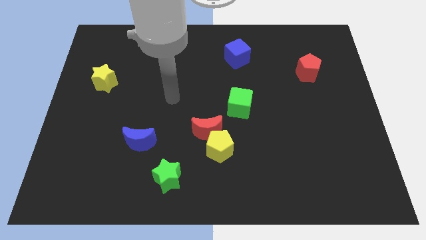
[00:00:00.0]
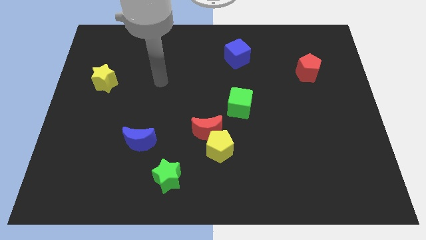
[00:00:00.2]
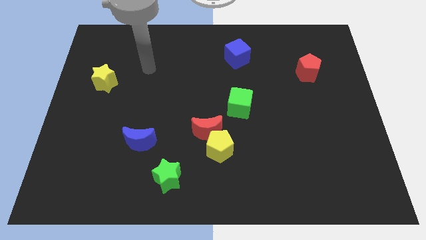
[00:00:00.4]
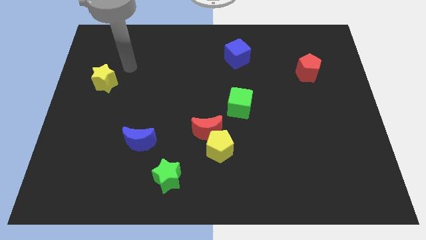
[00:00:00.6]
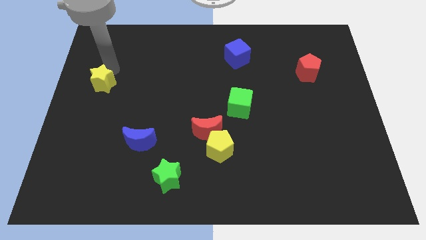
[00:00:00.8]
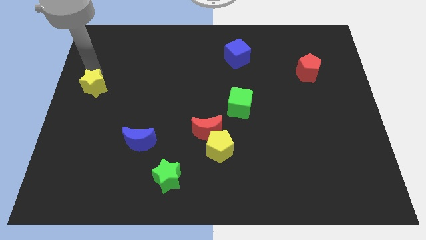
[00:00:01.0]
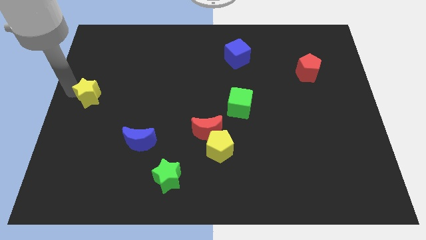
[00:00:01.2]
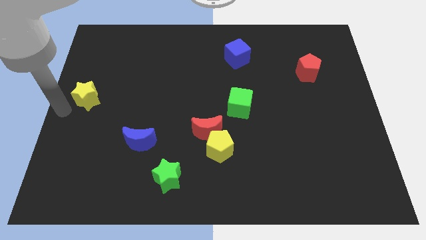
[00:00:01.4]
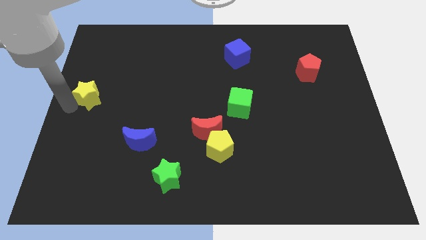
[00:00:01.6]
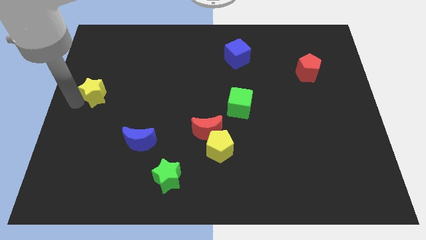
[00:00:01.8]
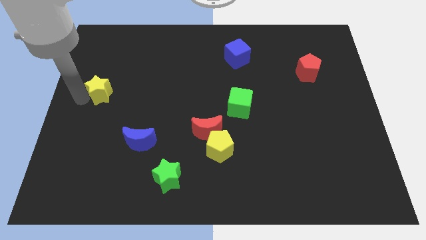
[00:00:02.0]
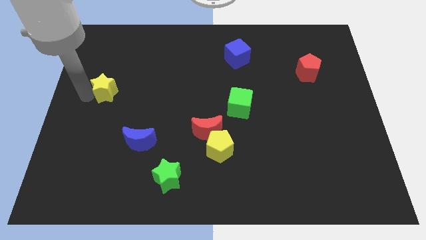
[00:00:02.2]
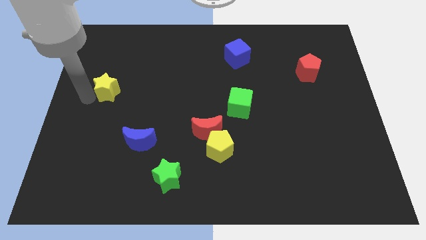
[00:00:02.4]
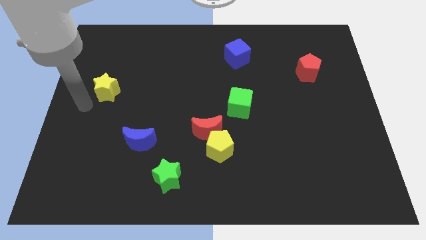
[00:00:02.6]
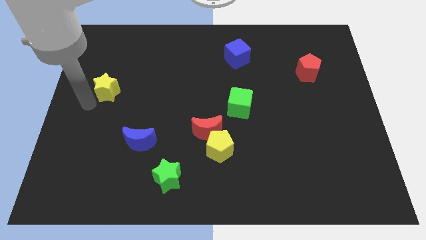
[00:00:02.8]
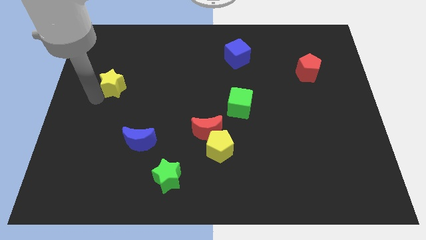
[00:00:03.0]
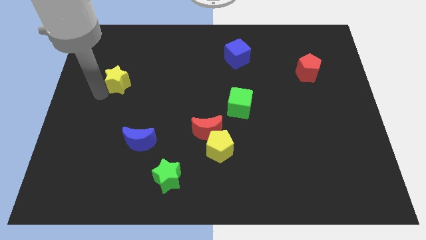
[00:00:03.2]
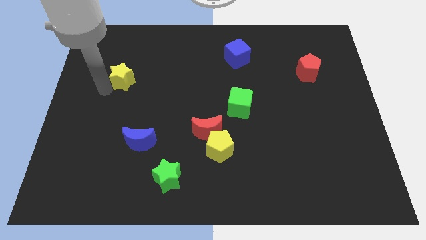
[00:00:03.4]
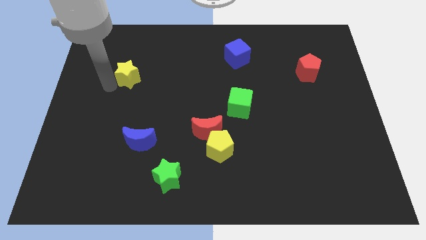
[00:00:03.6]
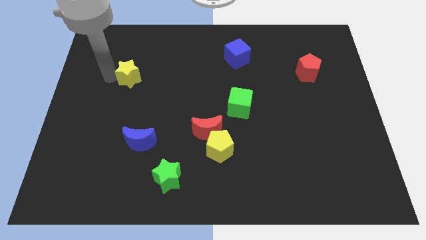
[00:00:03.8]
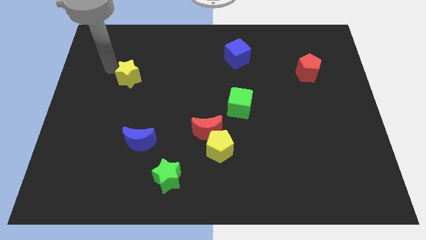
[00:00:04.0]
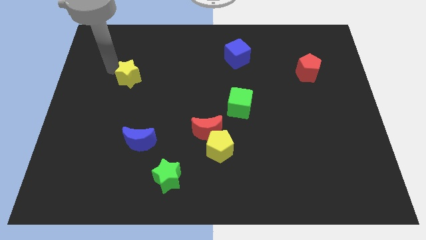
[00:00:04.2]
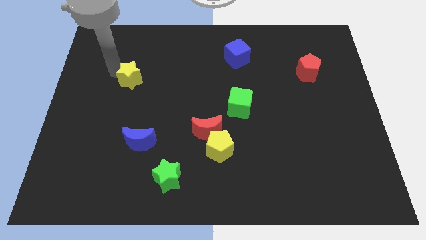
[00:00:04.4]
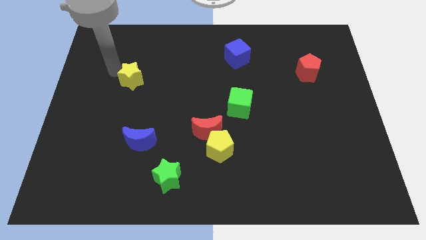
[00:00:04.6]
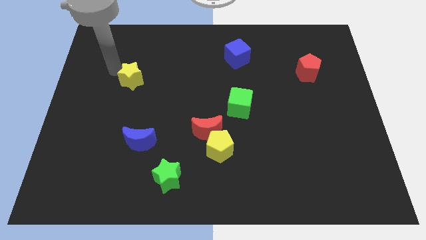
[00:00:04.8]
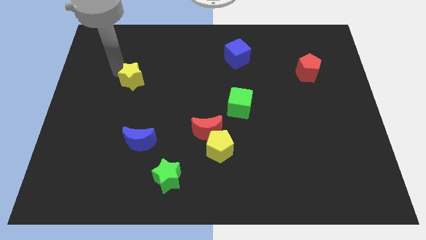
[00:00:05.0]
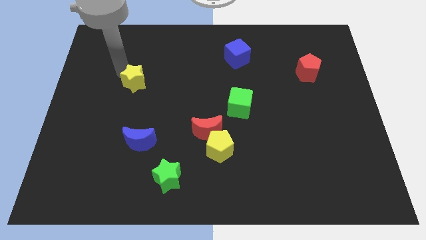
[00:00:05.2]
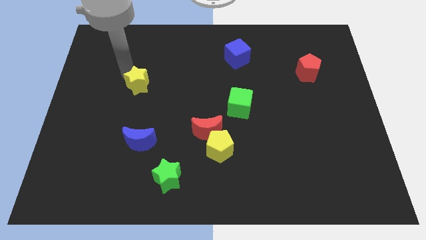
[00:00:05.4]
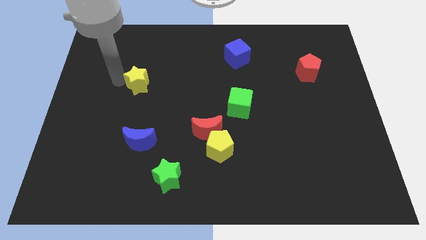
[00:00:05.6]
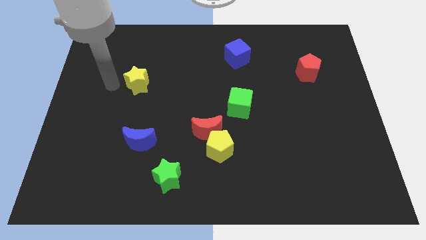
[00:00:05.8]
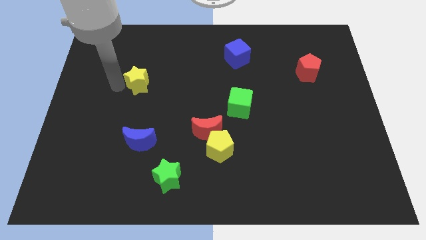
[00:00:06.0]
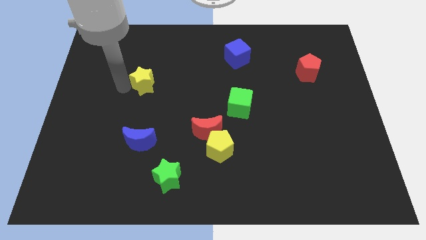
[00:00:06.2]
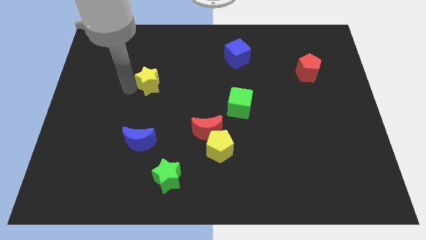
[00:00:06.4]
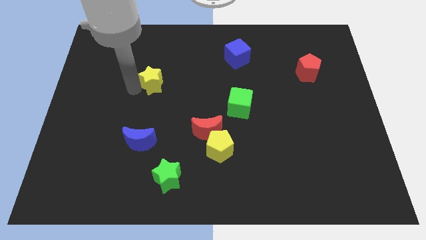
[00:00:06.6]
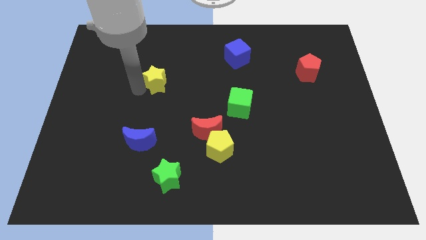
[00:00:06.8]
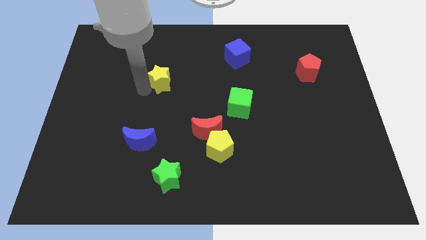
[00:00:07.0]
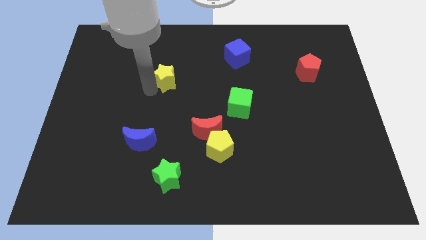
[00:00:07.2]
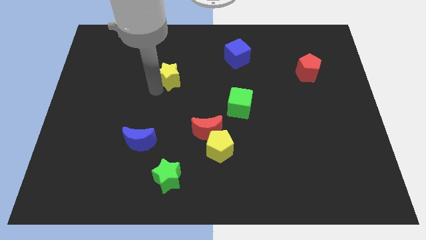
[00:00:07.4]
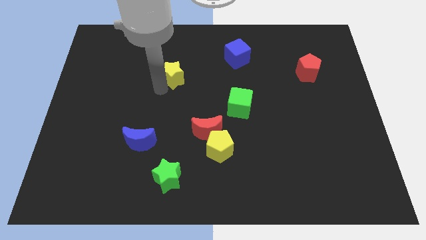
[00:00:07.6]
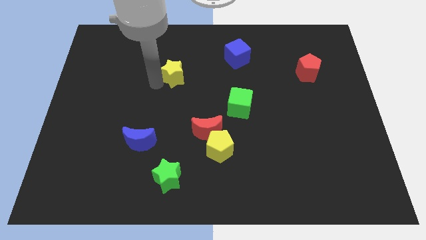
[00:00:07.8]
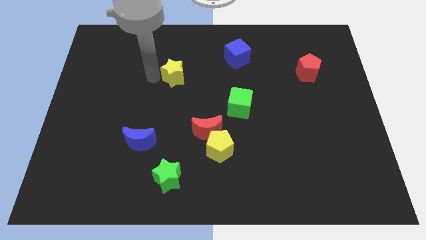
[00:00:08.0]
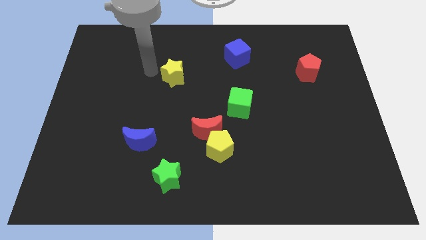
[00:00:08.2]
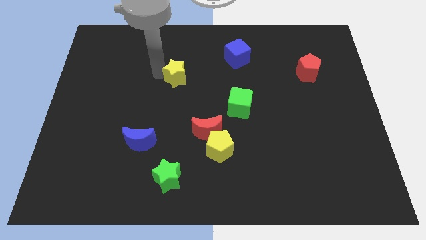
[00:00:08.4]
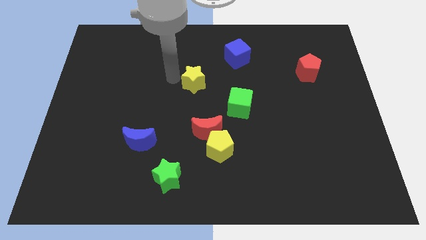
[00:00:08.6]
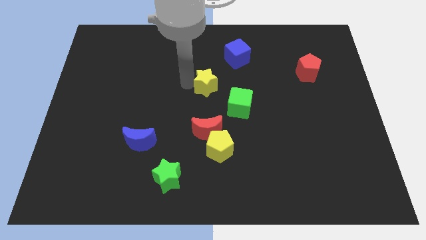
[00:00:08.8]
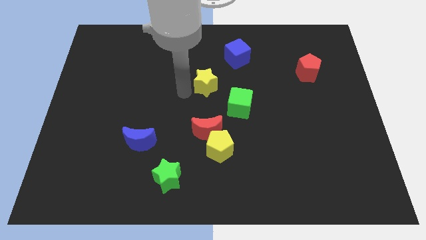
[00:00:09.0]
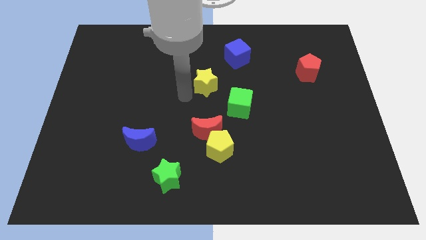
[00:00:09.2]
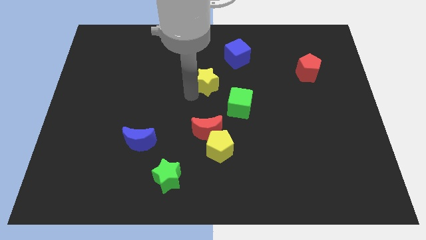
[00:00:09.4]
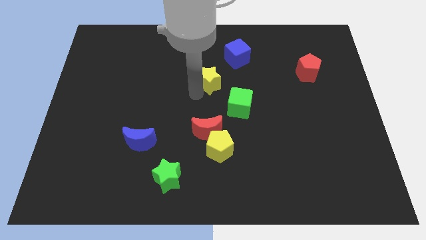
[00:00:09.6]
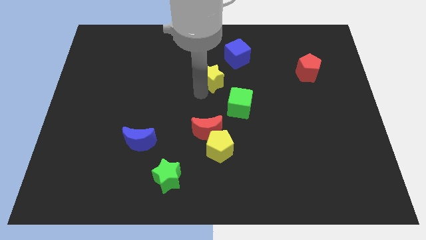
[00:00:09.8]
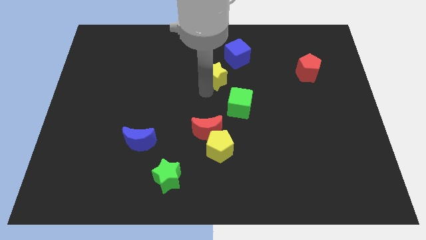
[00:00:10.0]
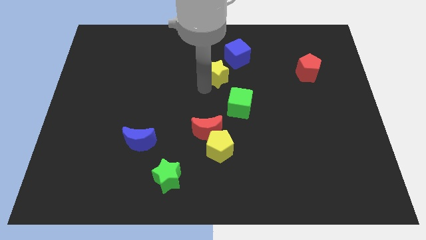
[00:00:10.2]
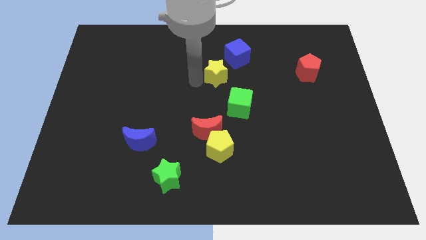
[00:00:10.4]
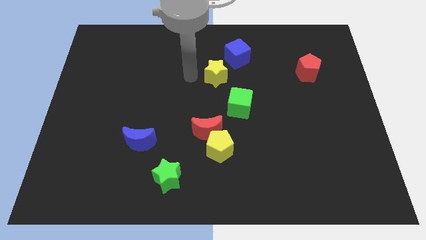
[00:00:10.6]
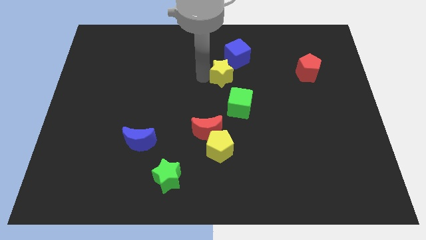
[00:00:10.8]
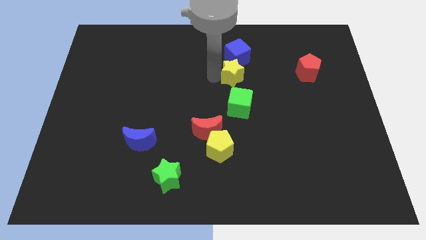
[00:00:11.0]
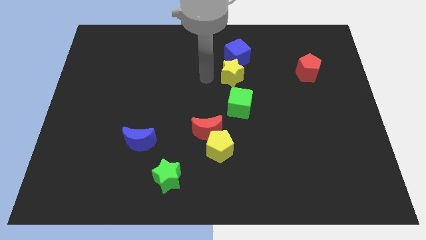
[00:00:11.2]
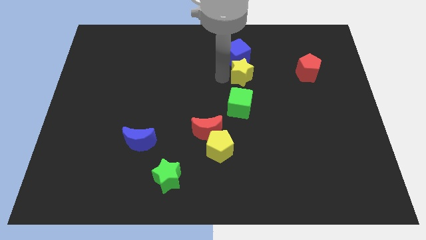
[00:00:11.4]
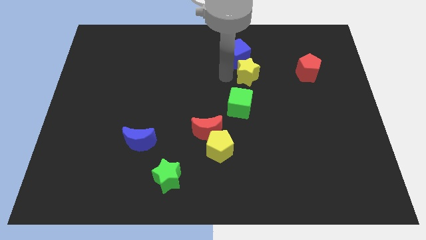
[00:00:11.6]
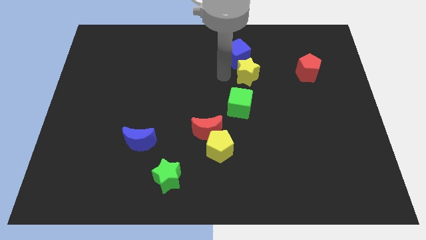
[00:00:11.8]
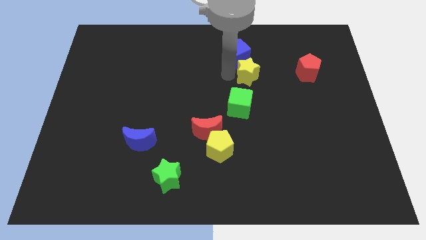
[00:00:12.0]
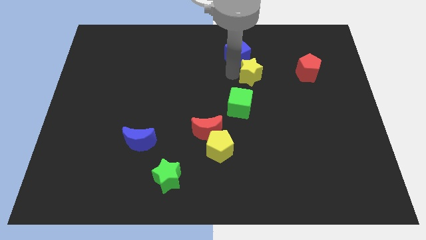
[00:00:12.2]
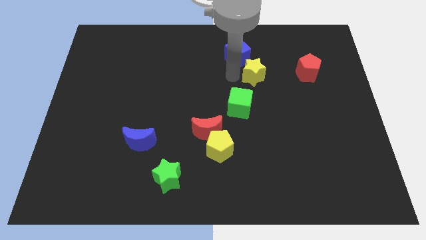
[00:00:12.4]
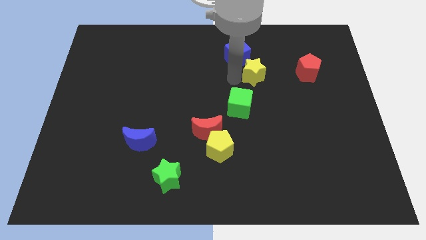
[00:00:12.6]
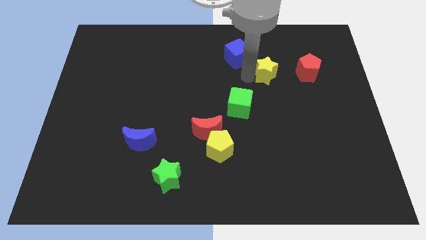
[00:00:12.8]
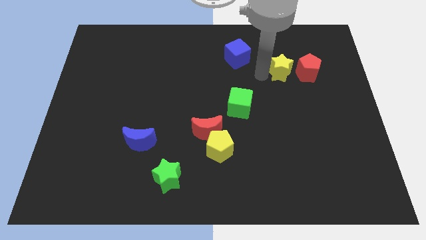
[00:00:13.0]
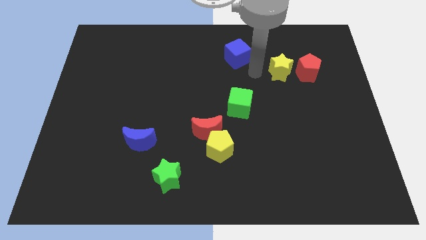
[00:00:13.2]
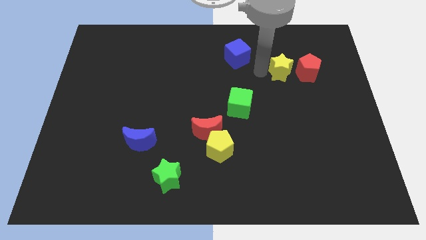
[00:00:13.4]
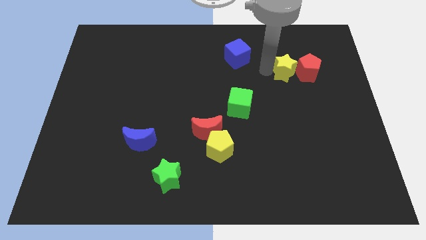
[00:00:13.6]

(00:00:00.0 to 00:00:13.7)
put the yellow star close to the red pentagon

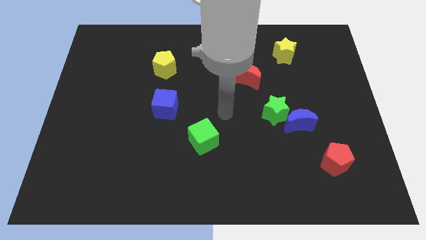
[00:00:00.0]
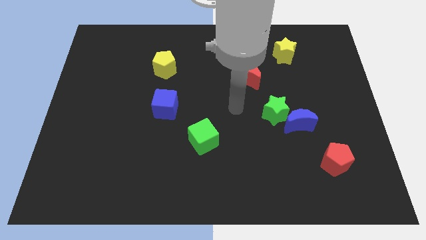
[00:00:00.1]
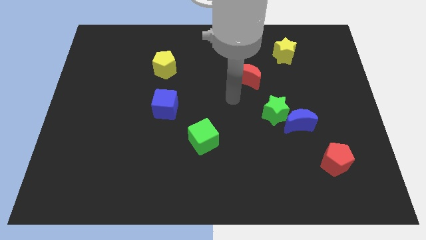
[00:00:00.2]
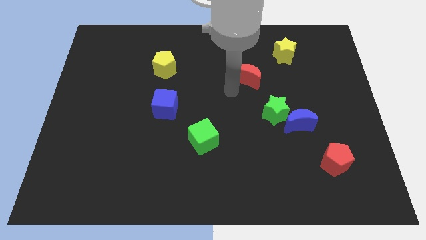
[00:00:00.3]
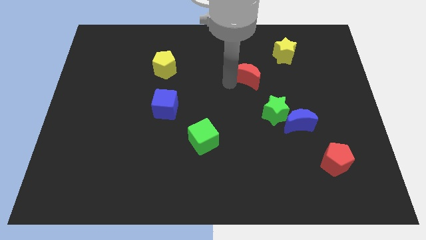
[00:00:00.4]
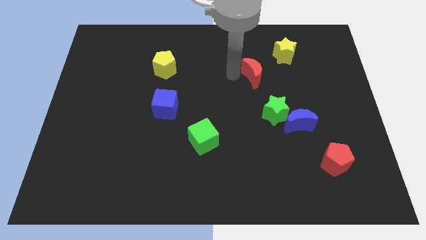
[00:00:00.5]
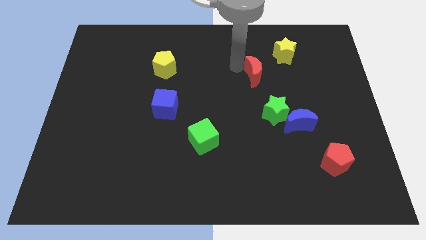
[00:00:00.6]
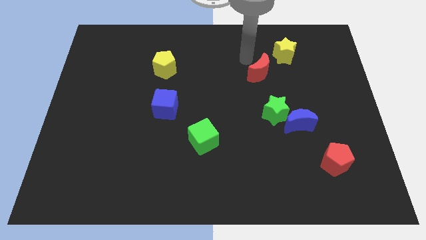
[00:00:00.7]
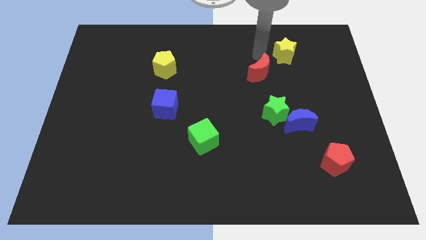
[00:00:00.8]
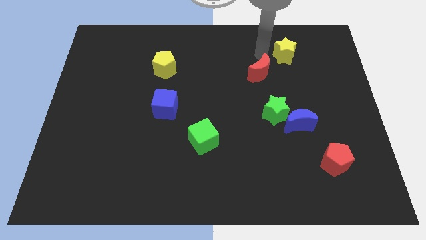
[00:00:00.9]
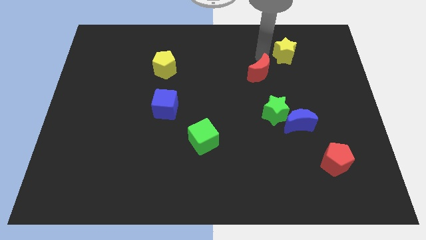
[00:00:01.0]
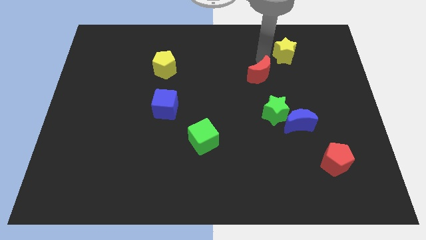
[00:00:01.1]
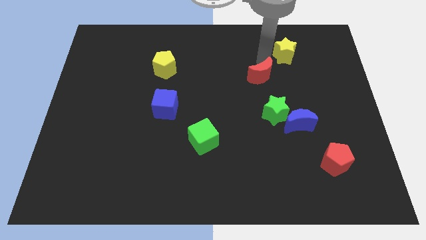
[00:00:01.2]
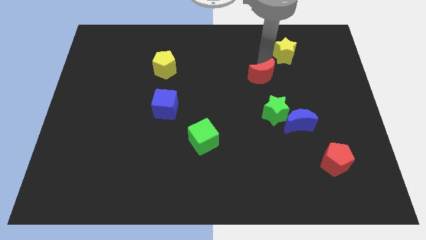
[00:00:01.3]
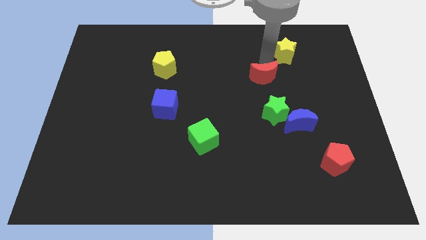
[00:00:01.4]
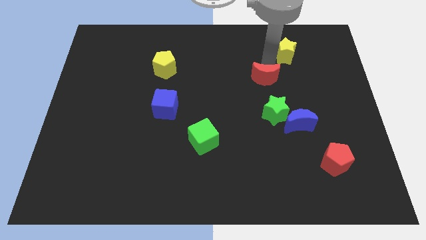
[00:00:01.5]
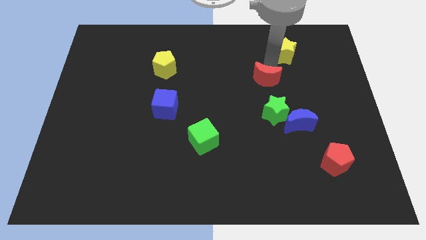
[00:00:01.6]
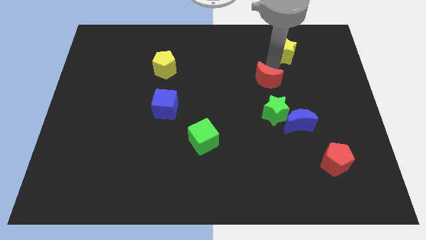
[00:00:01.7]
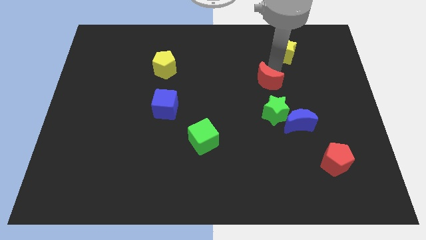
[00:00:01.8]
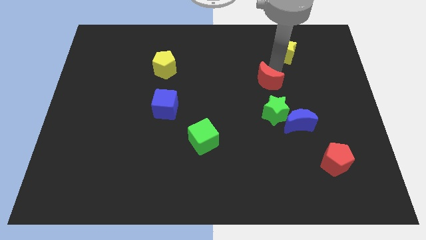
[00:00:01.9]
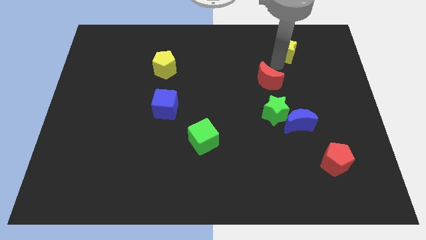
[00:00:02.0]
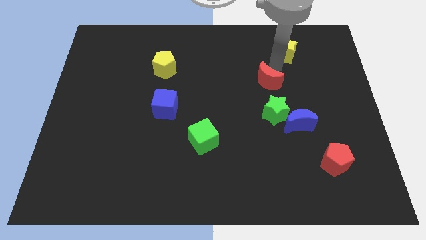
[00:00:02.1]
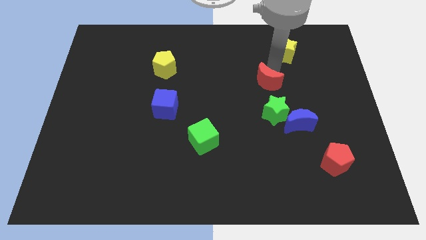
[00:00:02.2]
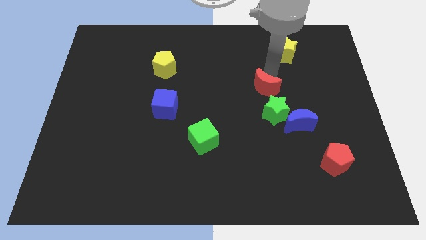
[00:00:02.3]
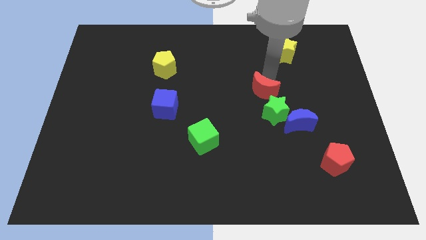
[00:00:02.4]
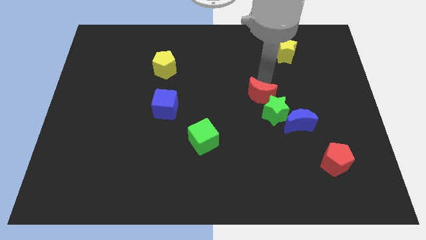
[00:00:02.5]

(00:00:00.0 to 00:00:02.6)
slide the red moon to the green star
